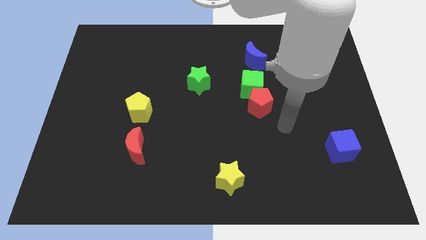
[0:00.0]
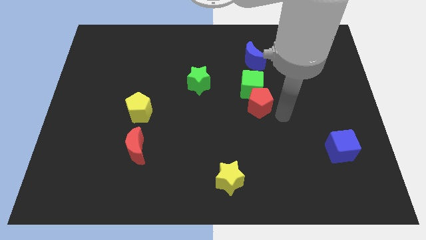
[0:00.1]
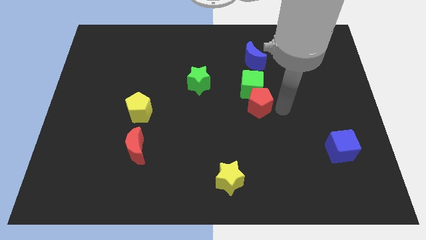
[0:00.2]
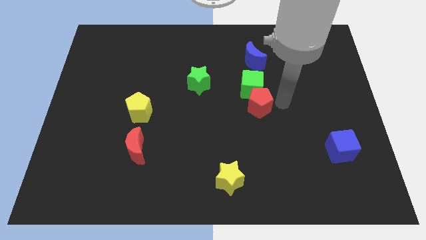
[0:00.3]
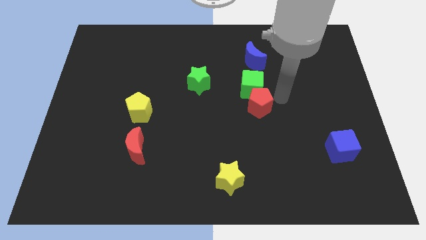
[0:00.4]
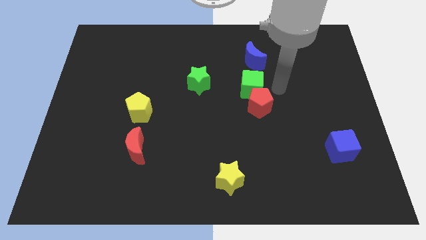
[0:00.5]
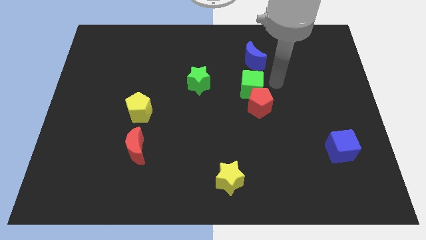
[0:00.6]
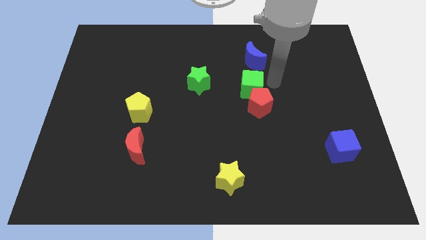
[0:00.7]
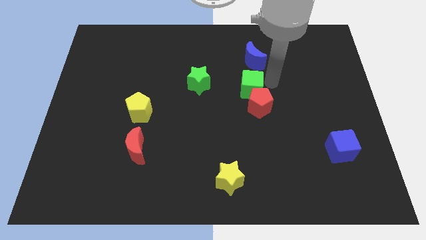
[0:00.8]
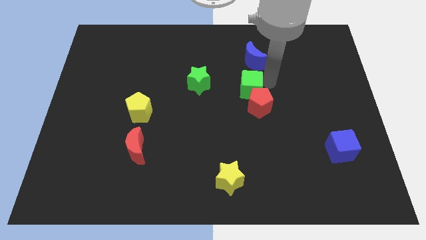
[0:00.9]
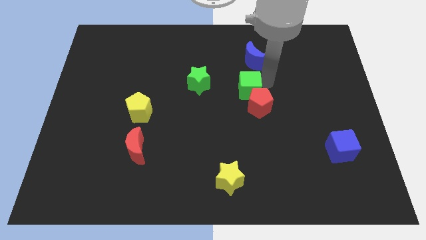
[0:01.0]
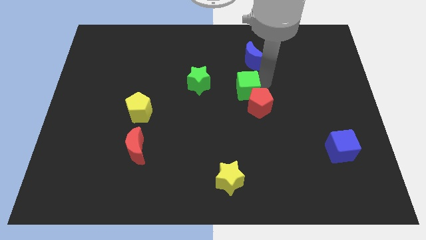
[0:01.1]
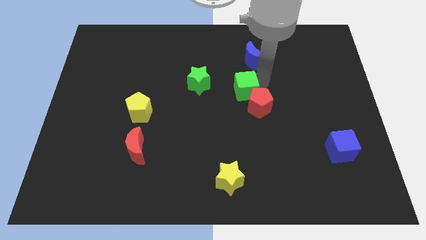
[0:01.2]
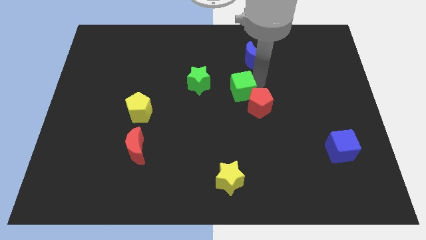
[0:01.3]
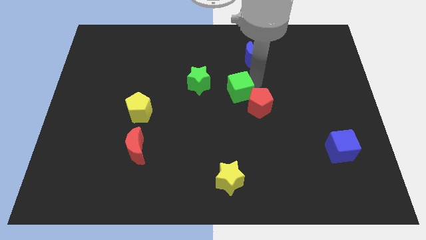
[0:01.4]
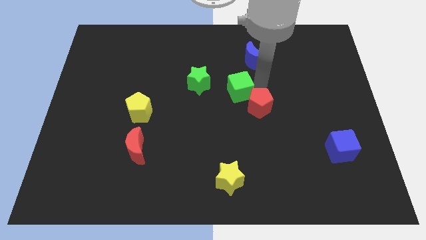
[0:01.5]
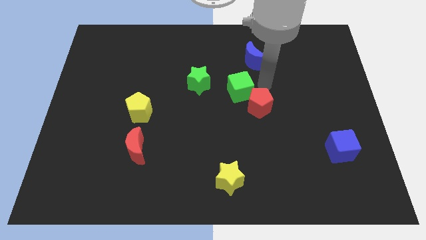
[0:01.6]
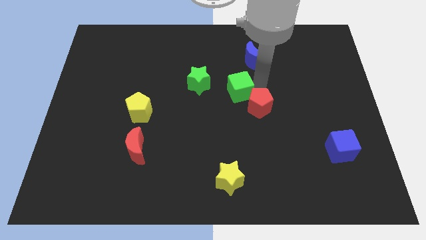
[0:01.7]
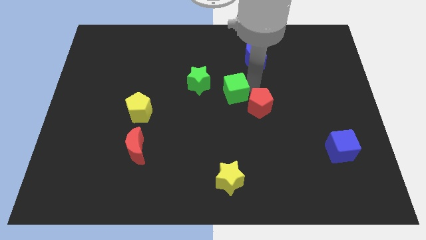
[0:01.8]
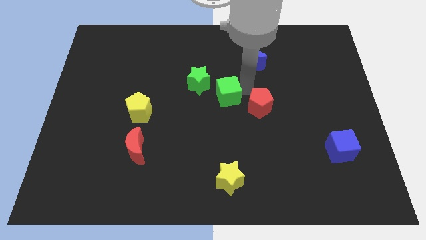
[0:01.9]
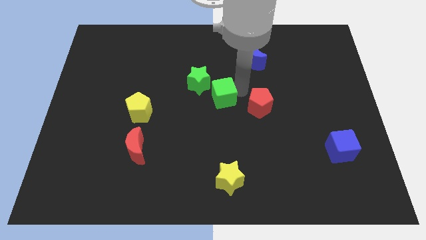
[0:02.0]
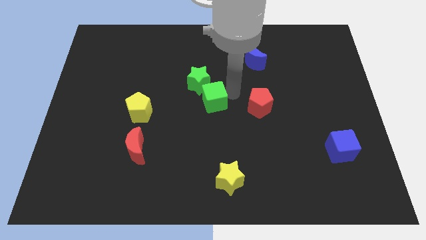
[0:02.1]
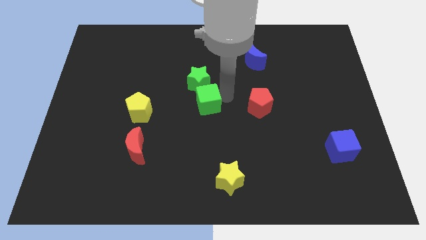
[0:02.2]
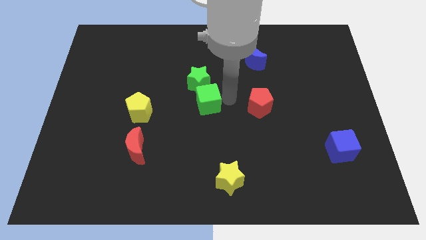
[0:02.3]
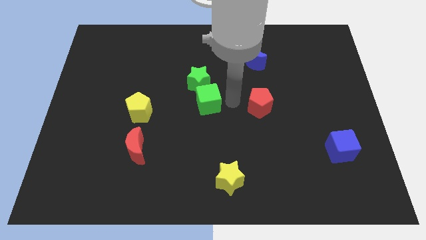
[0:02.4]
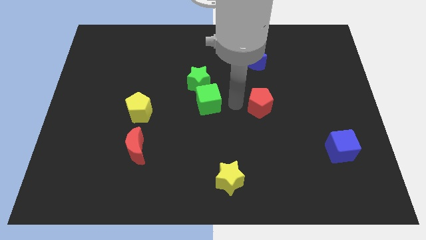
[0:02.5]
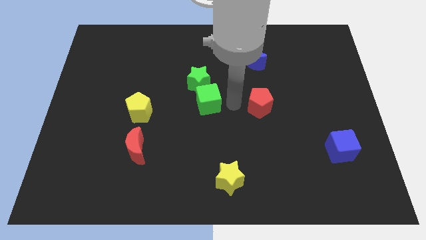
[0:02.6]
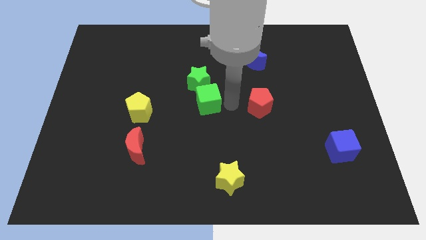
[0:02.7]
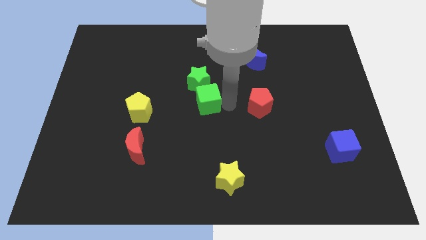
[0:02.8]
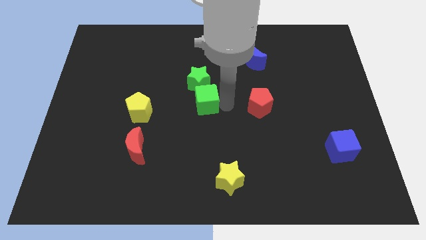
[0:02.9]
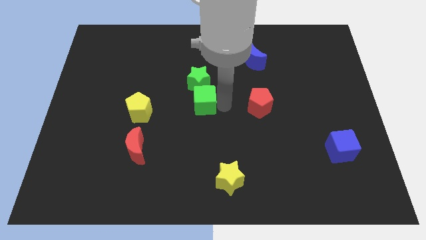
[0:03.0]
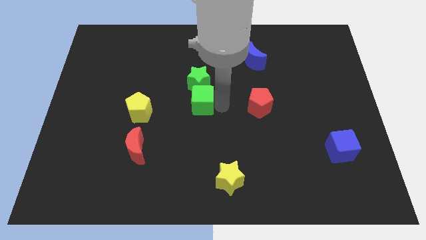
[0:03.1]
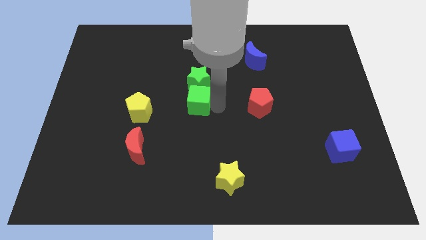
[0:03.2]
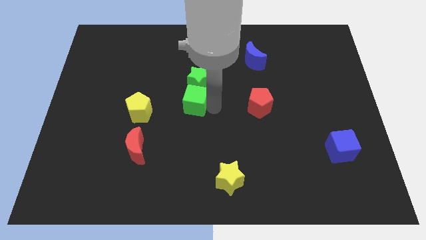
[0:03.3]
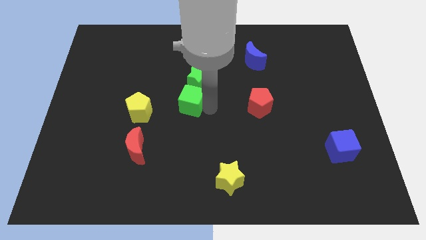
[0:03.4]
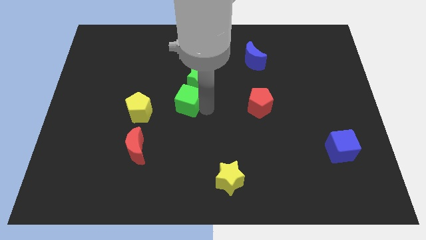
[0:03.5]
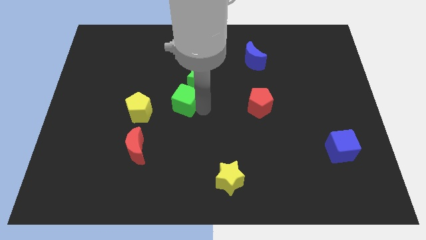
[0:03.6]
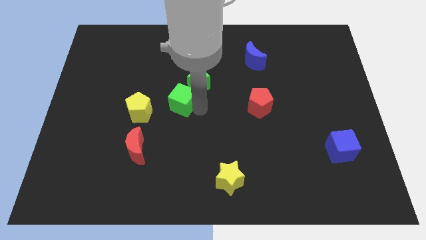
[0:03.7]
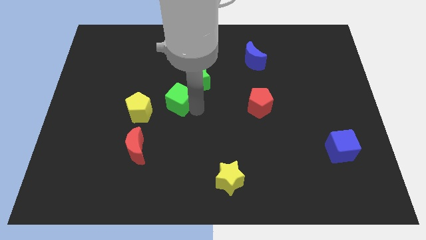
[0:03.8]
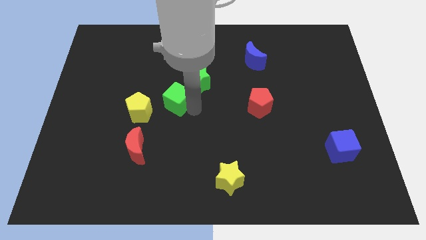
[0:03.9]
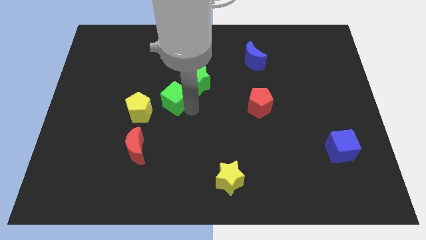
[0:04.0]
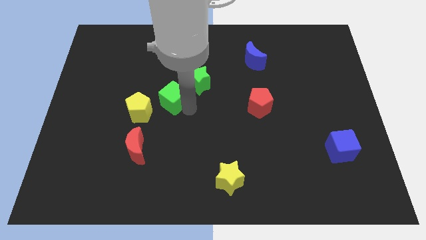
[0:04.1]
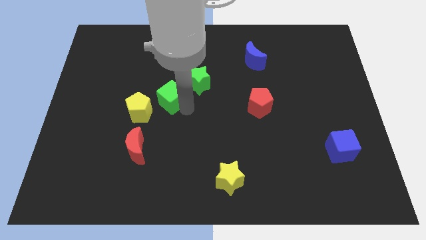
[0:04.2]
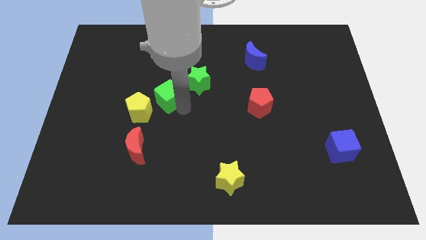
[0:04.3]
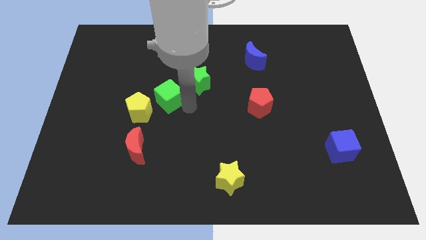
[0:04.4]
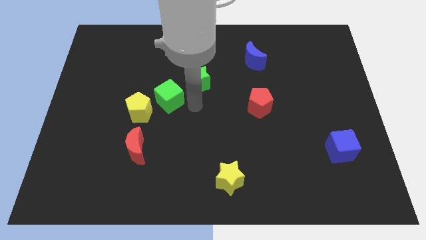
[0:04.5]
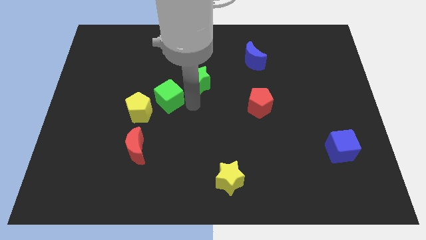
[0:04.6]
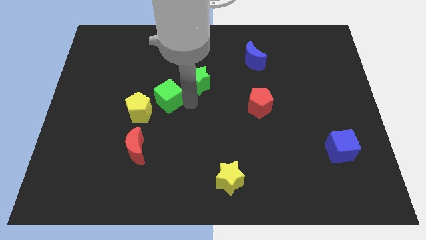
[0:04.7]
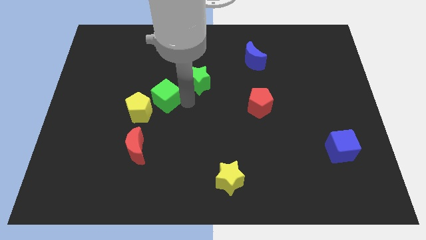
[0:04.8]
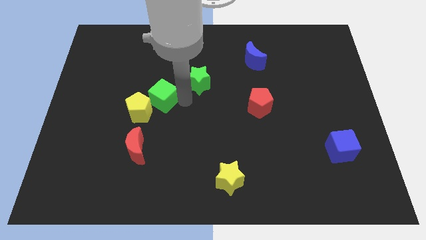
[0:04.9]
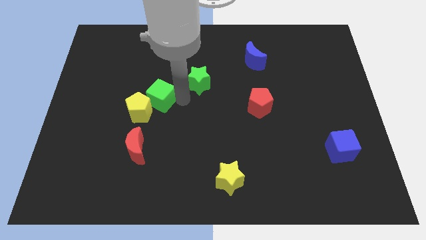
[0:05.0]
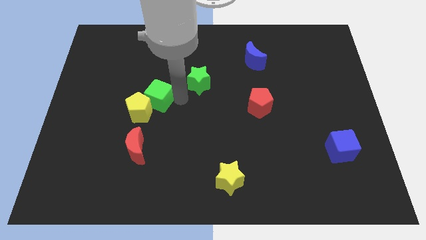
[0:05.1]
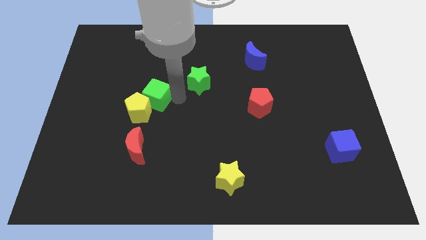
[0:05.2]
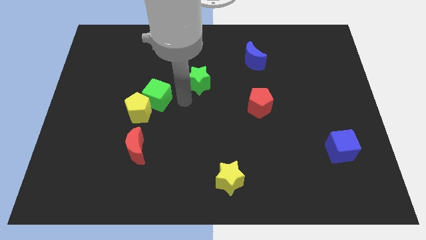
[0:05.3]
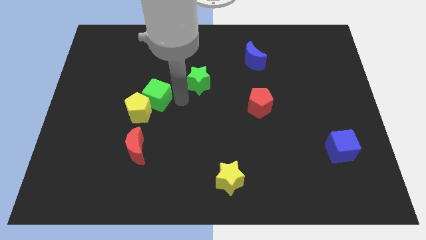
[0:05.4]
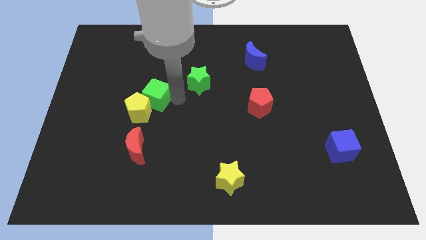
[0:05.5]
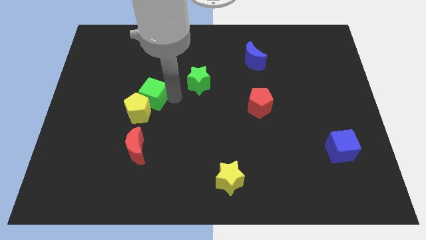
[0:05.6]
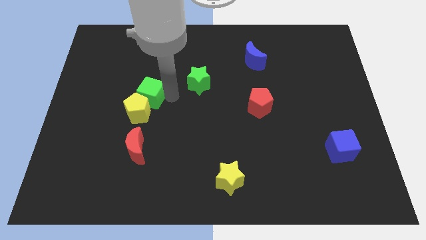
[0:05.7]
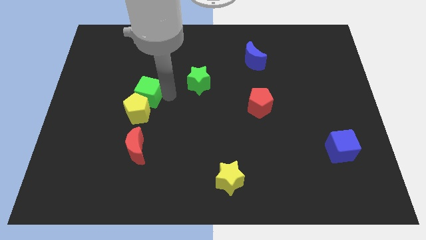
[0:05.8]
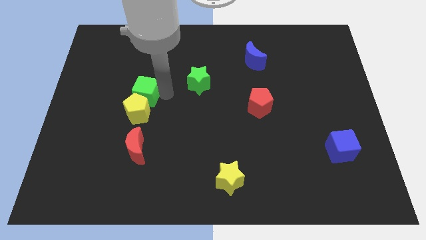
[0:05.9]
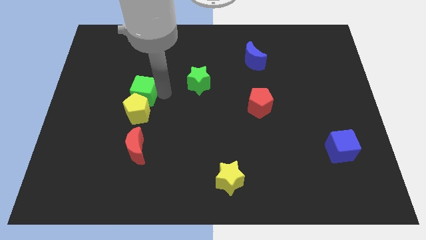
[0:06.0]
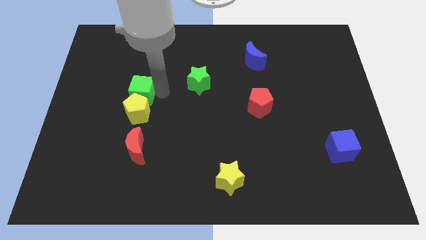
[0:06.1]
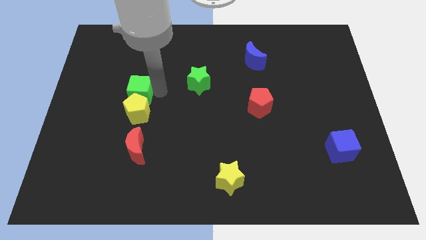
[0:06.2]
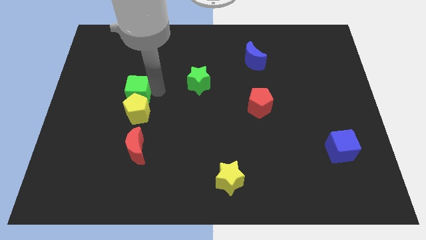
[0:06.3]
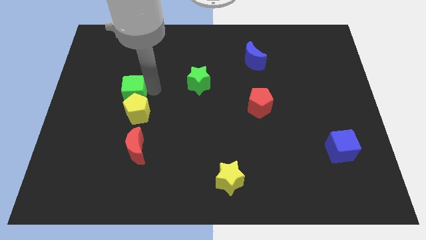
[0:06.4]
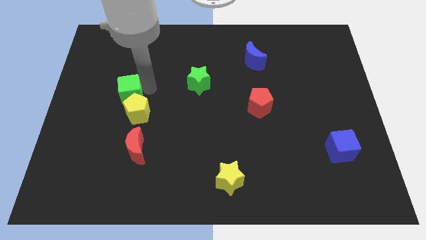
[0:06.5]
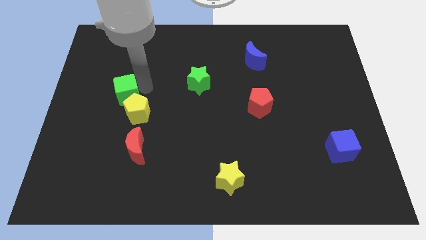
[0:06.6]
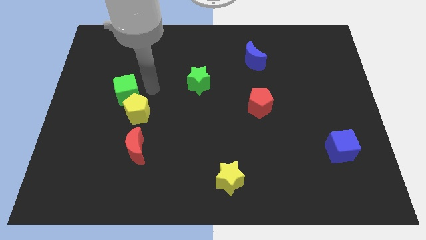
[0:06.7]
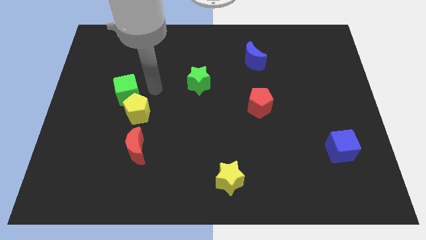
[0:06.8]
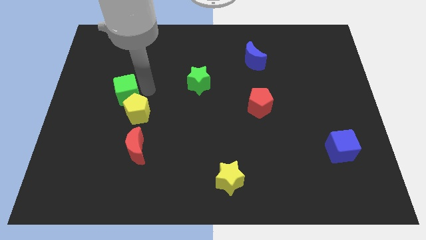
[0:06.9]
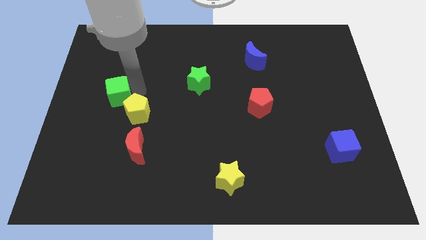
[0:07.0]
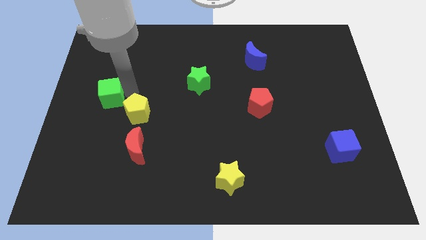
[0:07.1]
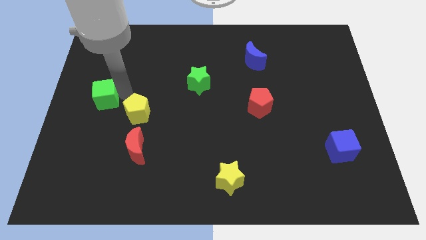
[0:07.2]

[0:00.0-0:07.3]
put the green cube to the center left
